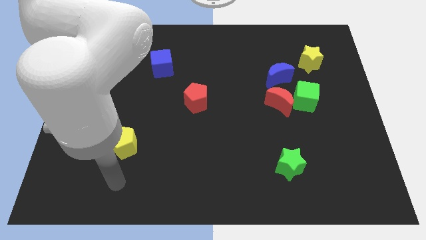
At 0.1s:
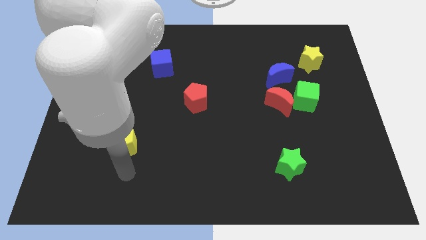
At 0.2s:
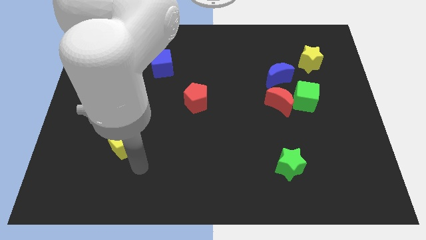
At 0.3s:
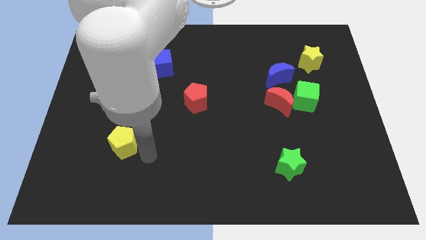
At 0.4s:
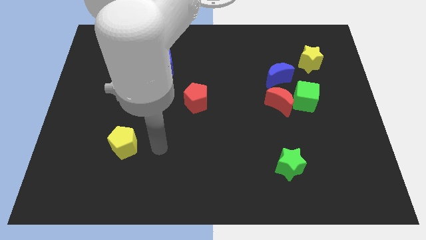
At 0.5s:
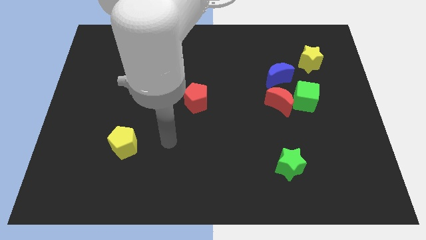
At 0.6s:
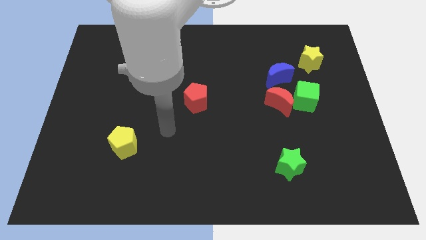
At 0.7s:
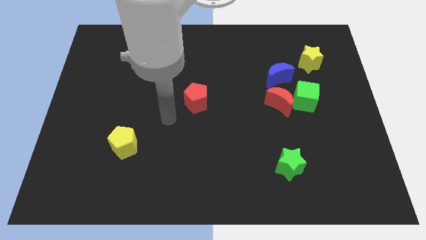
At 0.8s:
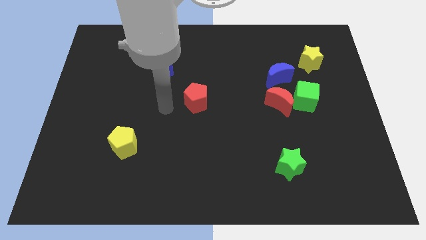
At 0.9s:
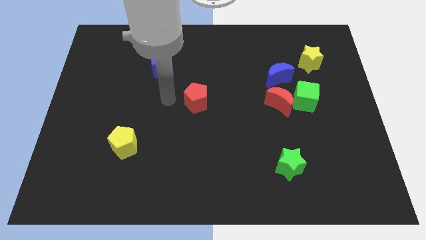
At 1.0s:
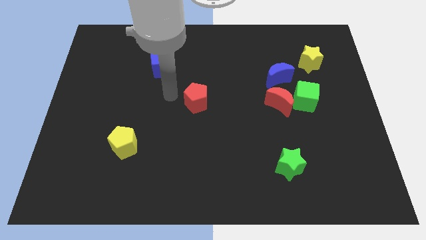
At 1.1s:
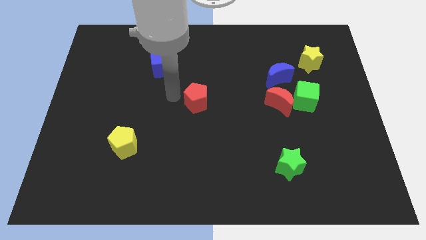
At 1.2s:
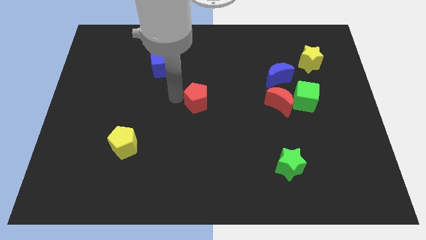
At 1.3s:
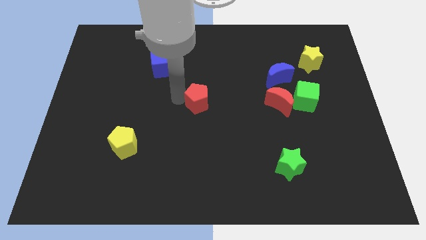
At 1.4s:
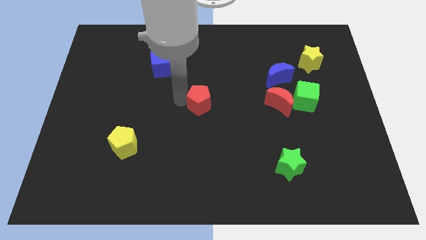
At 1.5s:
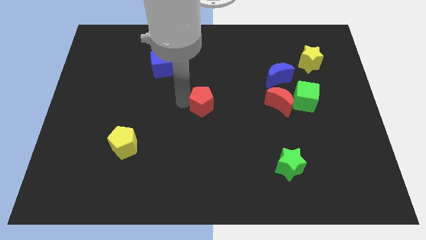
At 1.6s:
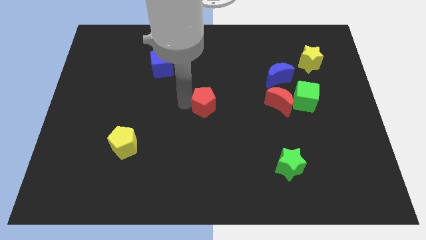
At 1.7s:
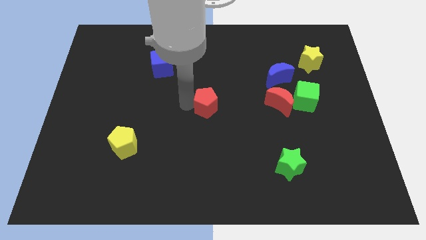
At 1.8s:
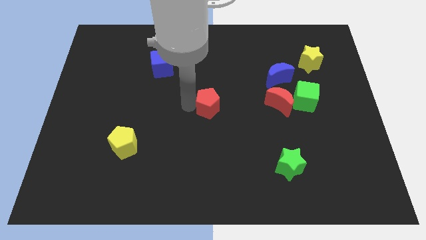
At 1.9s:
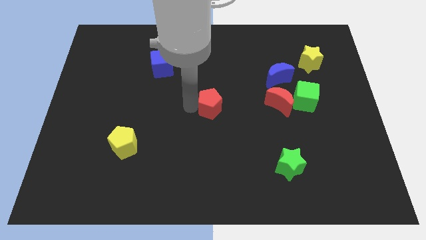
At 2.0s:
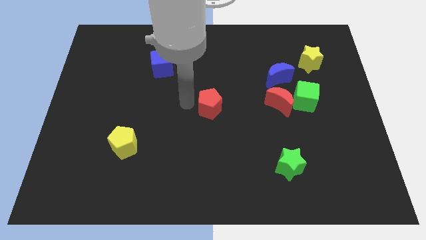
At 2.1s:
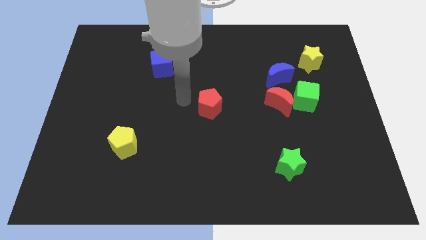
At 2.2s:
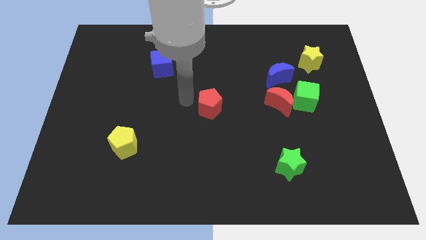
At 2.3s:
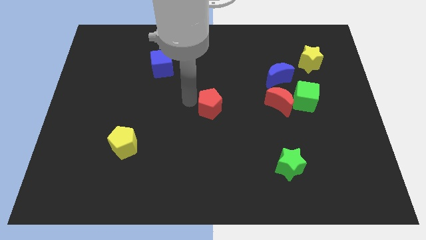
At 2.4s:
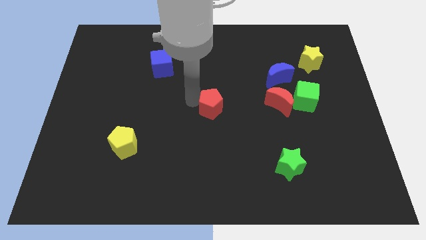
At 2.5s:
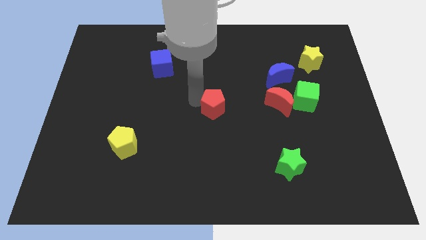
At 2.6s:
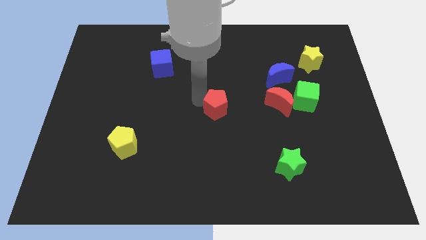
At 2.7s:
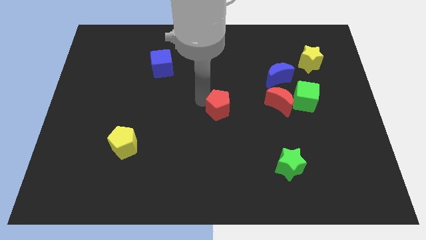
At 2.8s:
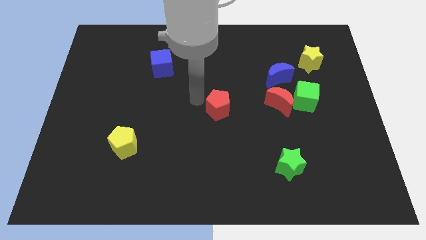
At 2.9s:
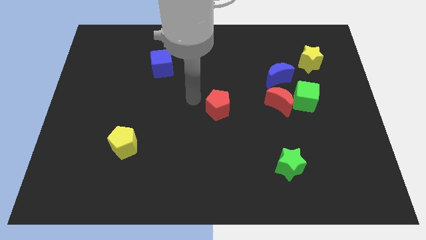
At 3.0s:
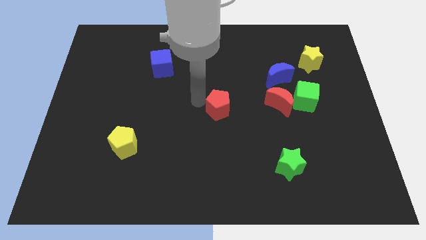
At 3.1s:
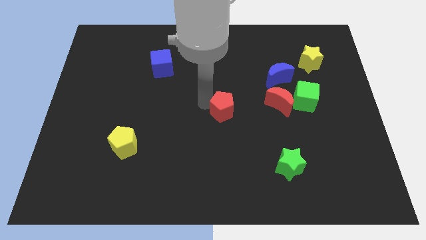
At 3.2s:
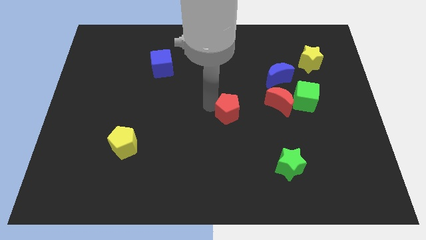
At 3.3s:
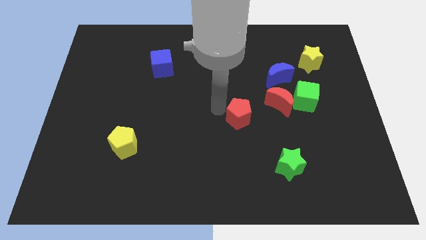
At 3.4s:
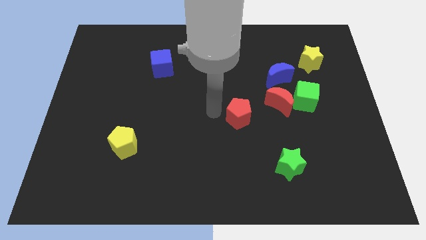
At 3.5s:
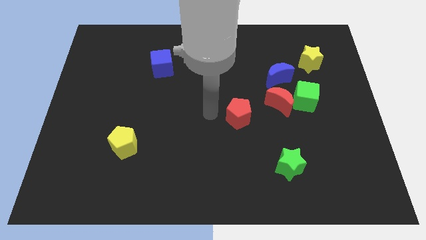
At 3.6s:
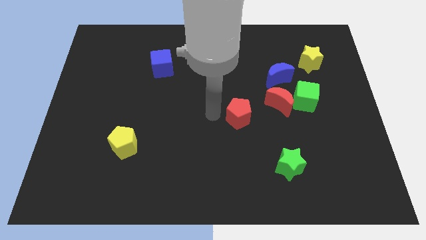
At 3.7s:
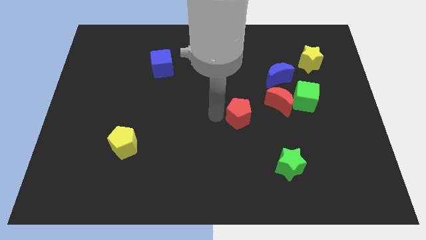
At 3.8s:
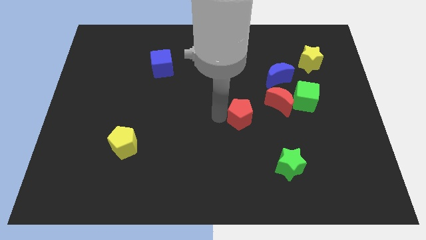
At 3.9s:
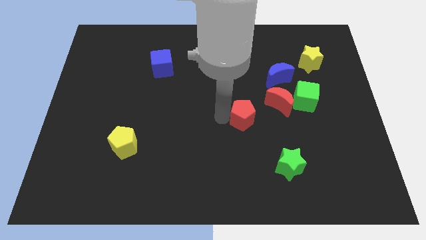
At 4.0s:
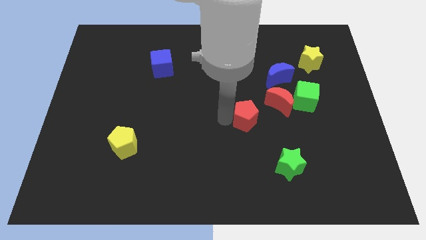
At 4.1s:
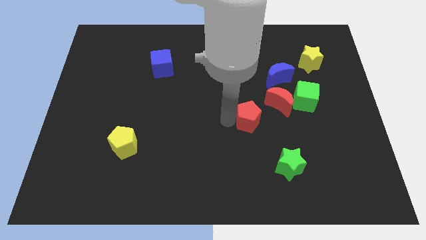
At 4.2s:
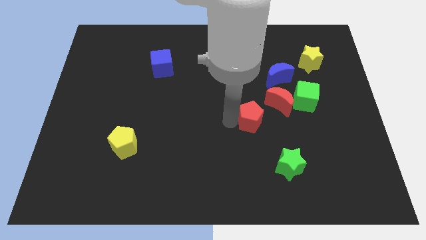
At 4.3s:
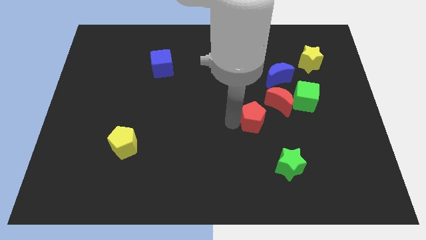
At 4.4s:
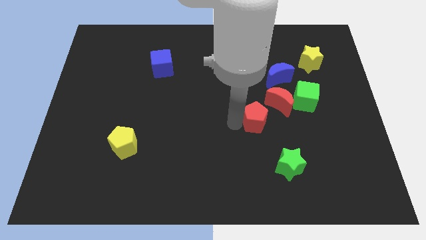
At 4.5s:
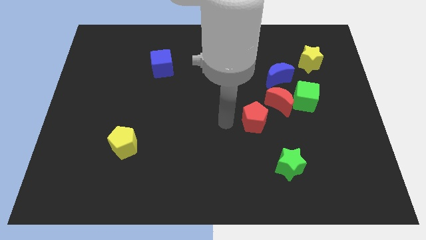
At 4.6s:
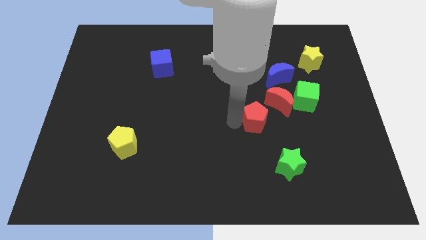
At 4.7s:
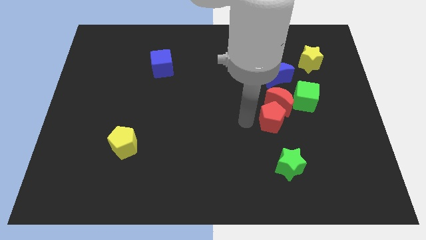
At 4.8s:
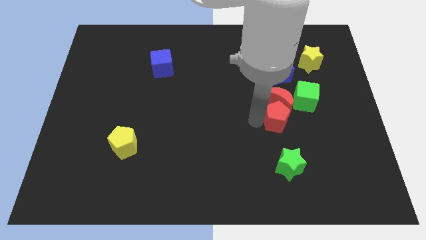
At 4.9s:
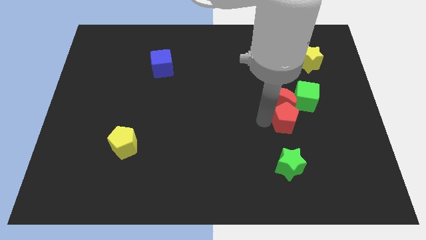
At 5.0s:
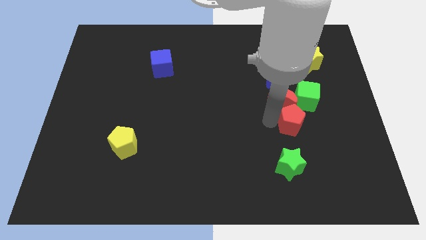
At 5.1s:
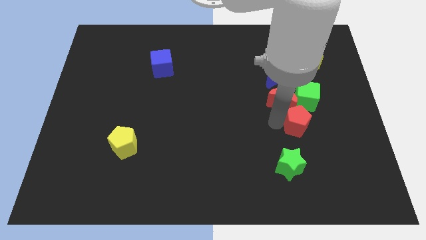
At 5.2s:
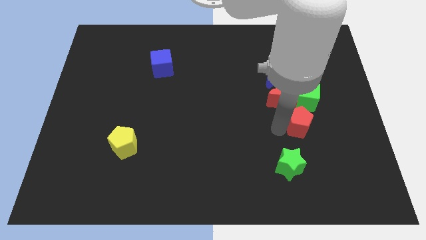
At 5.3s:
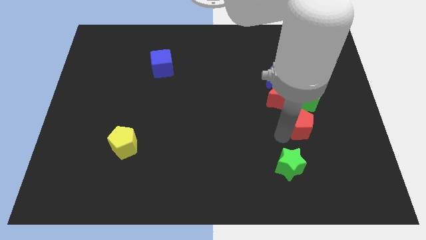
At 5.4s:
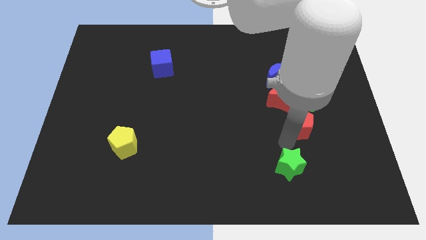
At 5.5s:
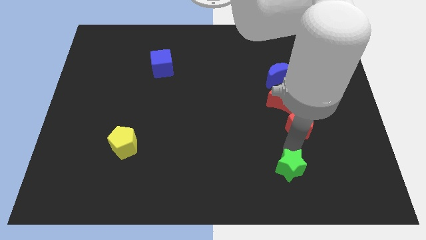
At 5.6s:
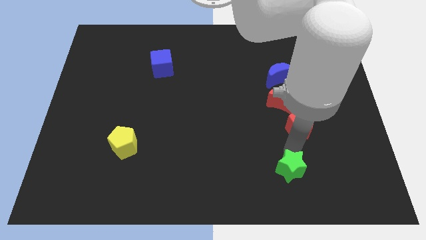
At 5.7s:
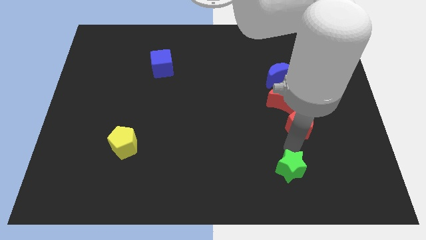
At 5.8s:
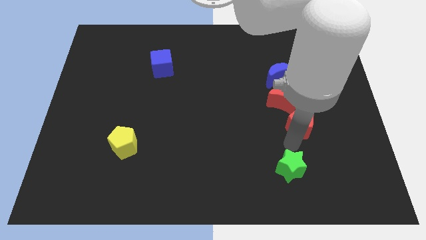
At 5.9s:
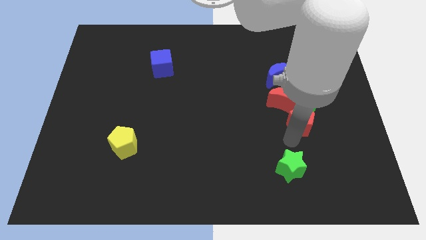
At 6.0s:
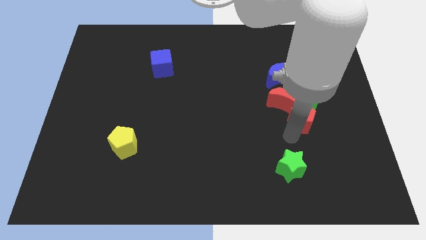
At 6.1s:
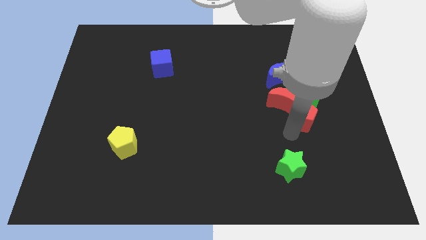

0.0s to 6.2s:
push the red pentagon to the green cube

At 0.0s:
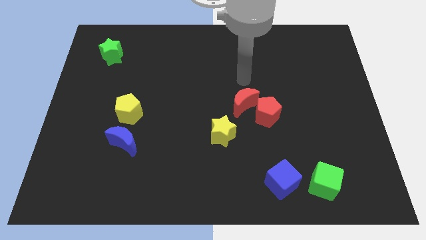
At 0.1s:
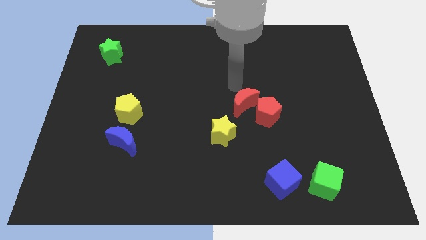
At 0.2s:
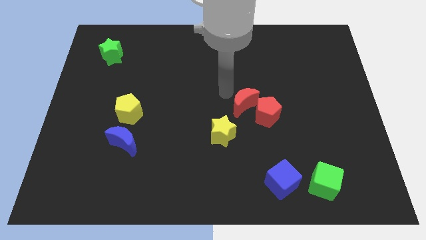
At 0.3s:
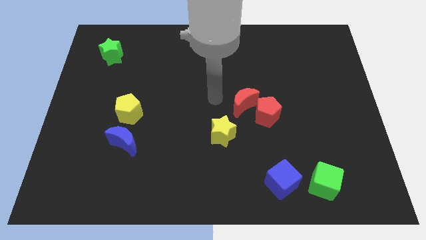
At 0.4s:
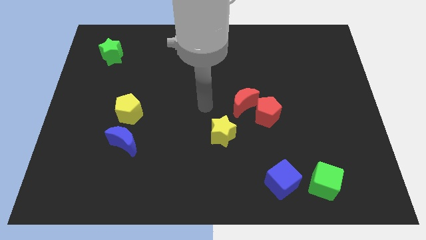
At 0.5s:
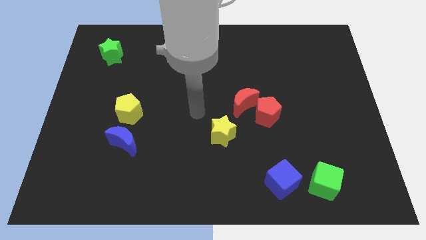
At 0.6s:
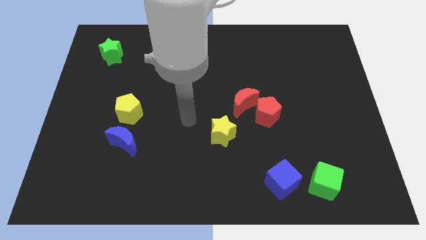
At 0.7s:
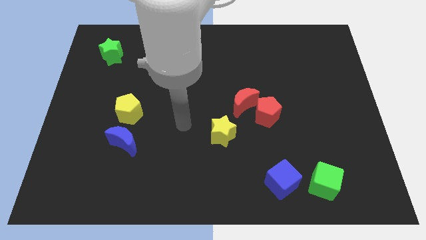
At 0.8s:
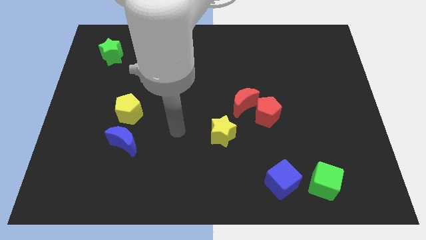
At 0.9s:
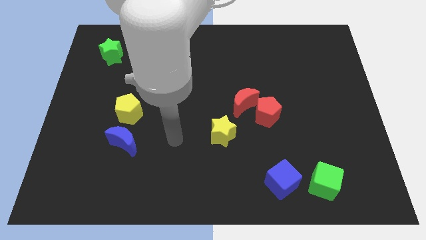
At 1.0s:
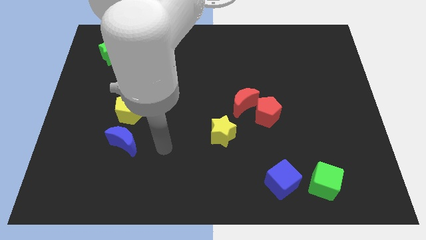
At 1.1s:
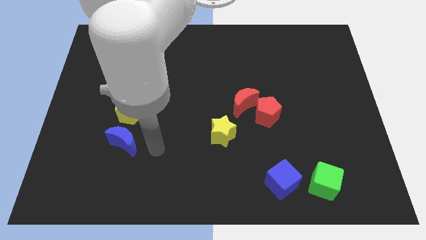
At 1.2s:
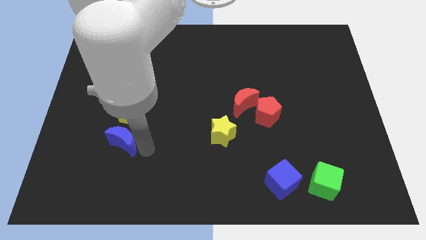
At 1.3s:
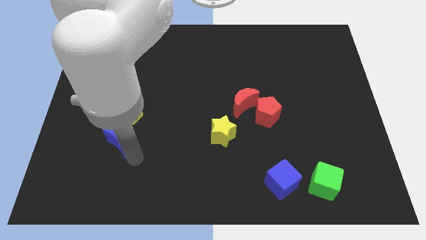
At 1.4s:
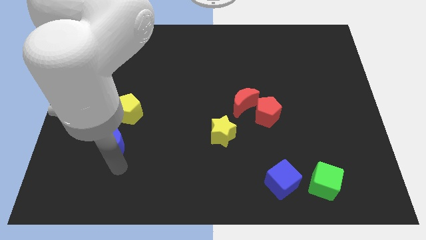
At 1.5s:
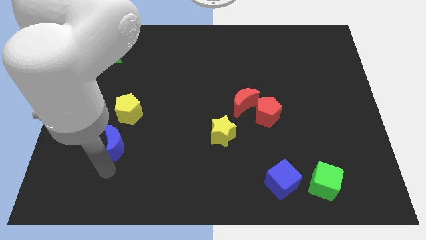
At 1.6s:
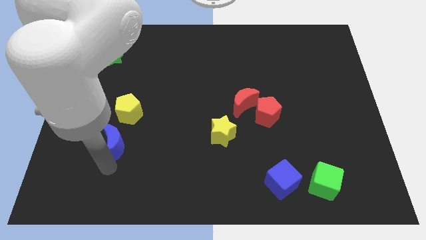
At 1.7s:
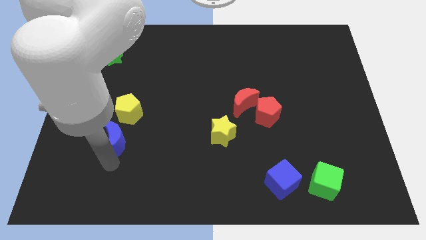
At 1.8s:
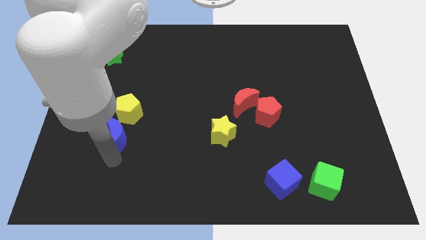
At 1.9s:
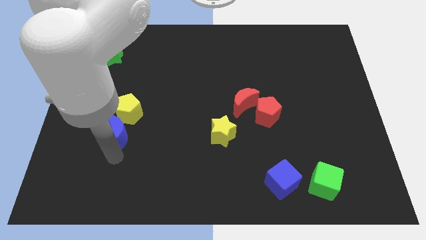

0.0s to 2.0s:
put the blue moon next to the yellow pentagon
